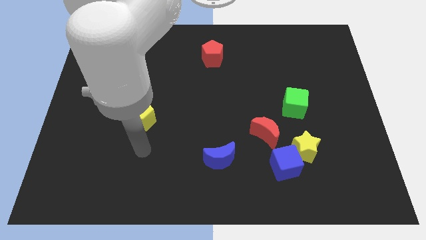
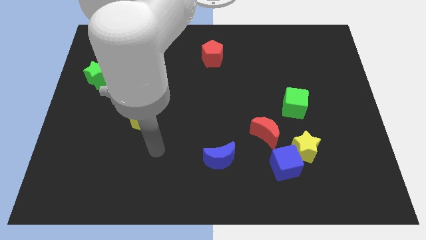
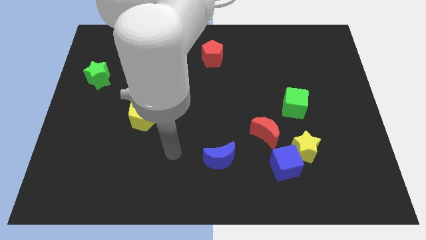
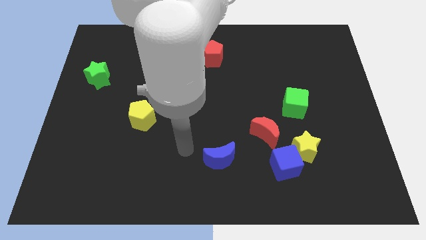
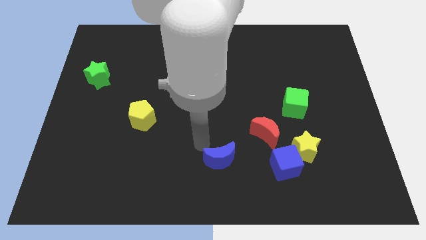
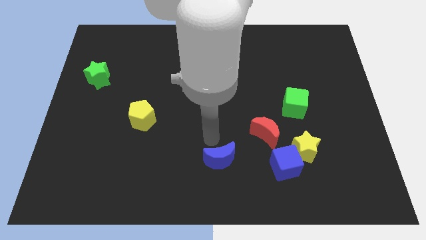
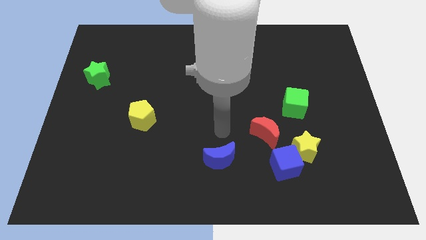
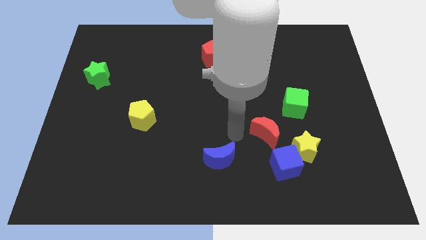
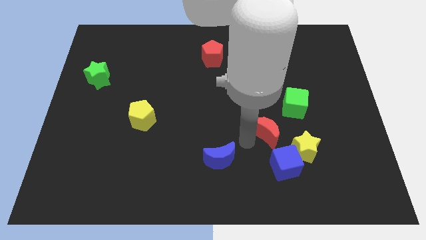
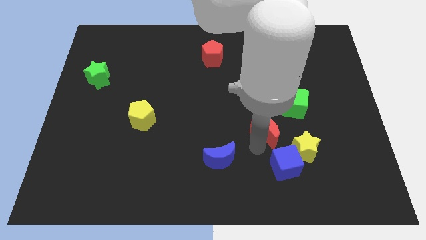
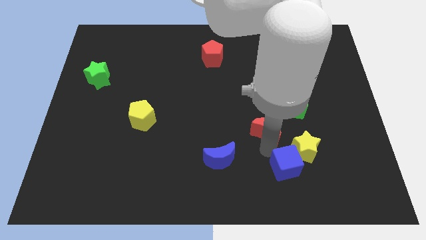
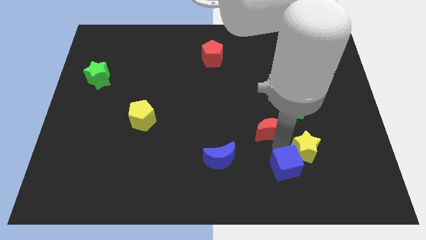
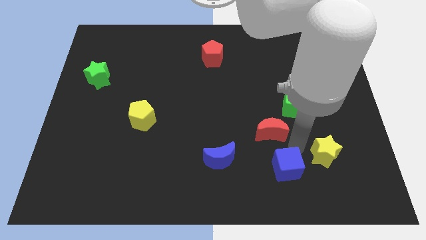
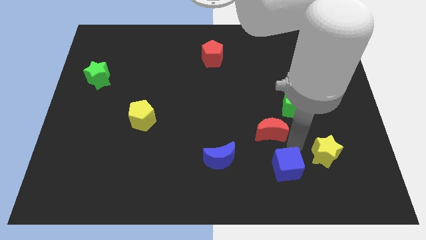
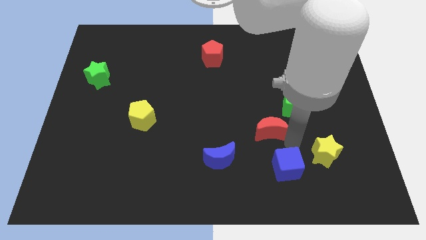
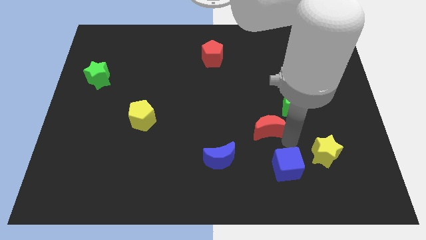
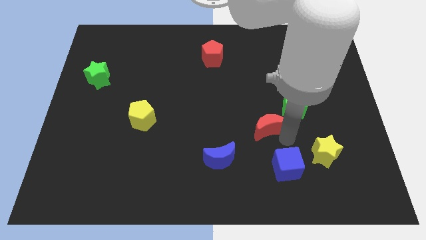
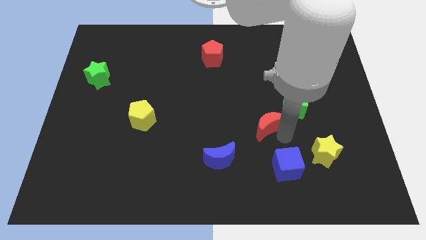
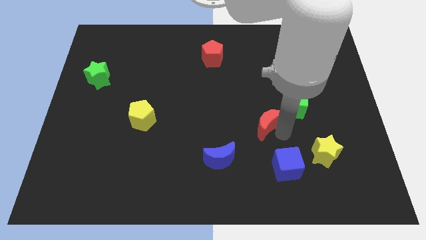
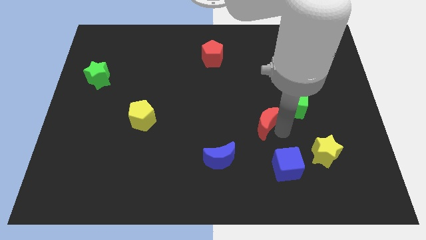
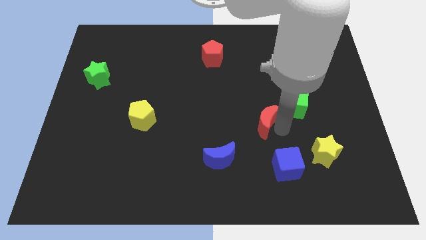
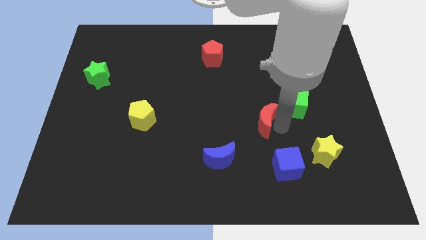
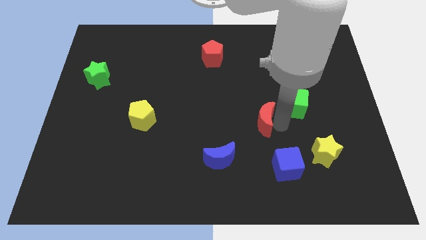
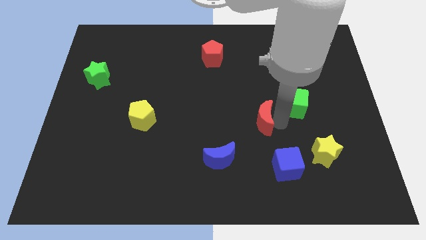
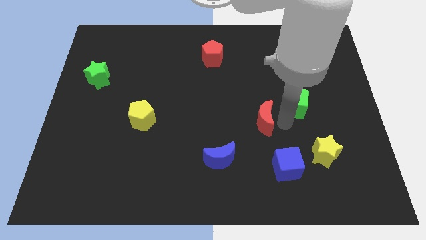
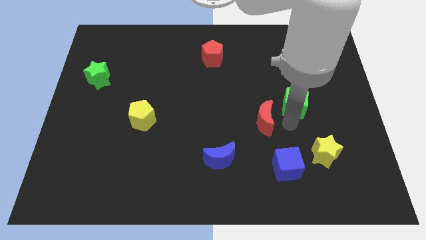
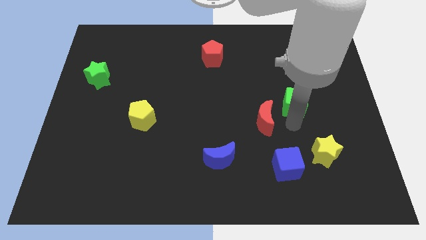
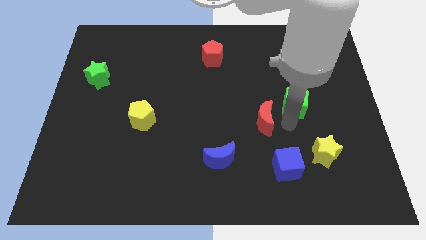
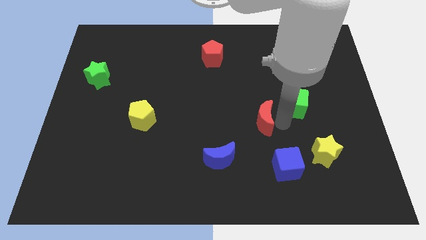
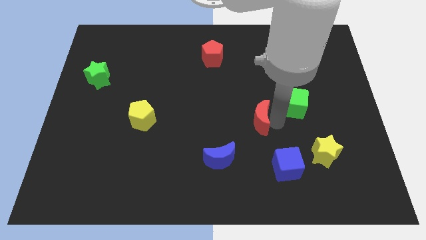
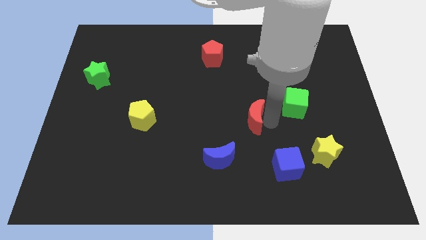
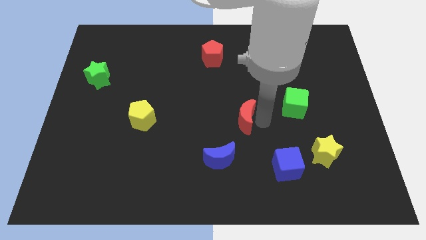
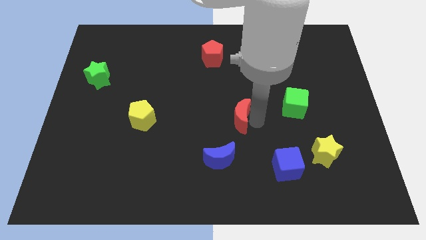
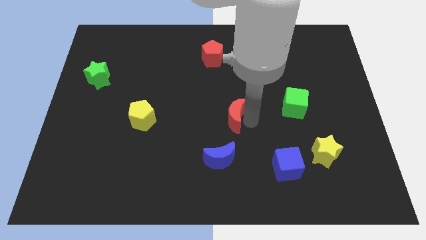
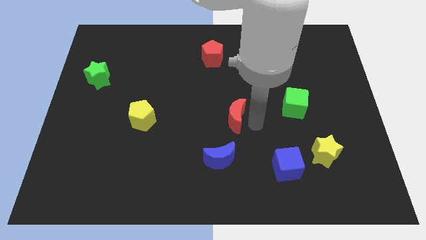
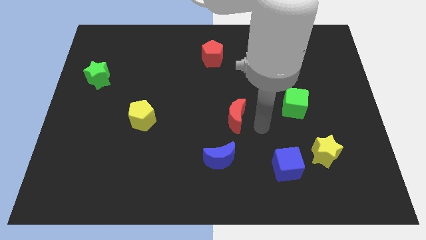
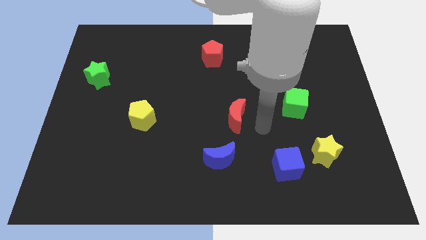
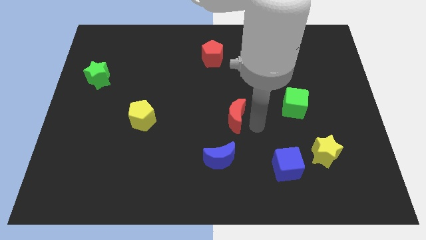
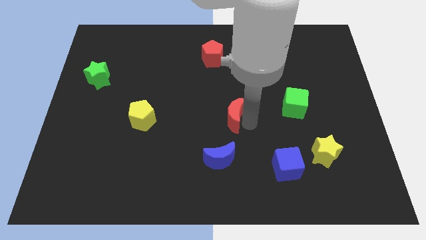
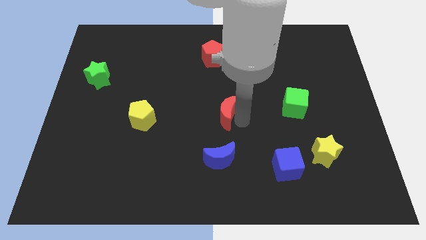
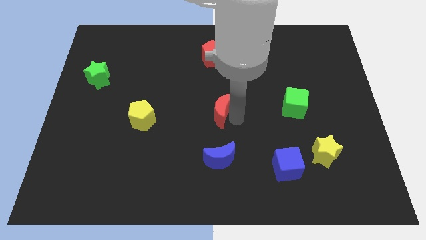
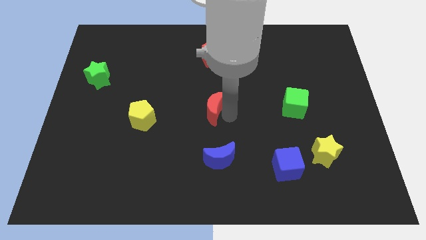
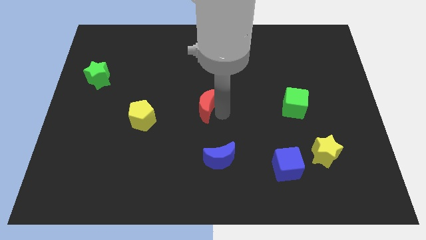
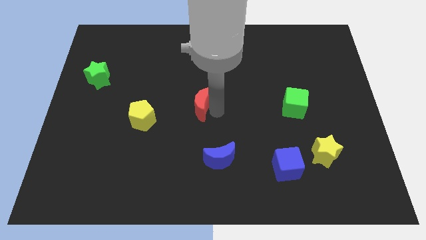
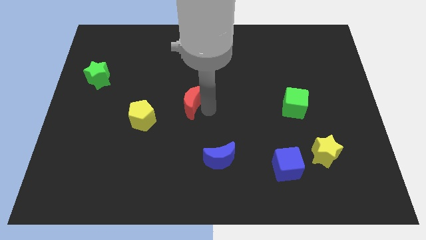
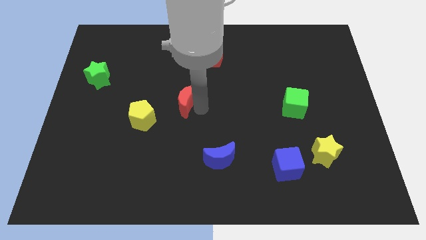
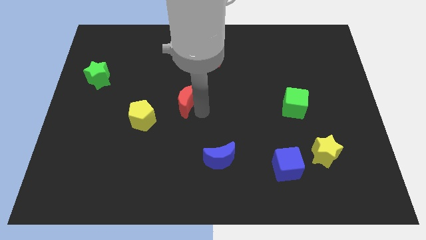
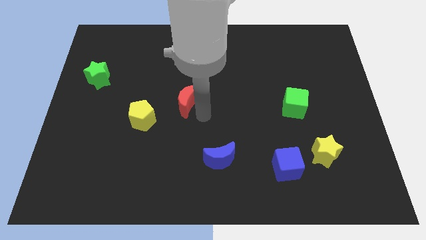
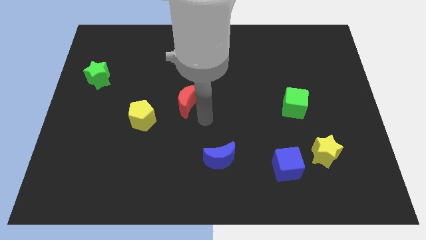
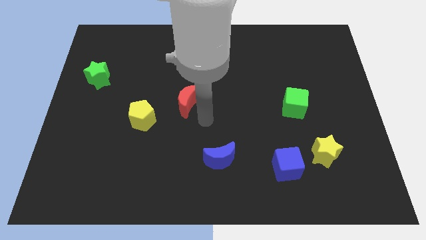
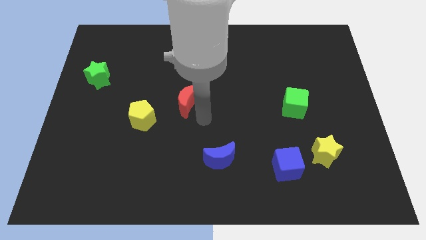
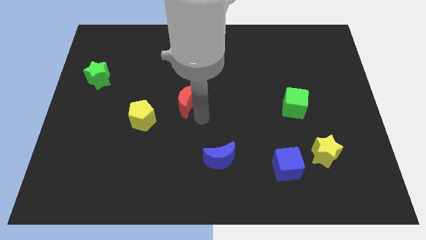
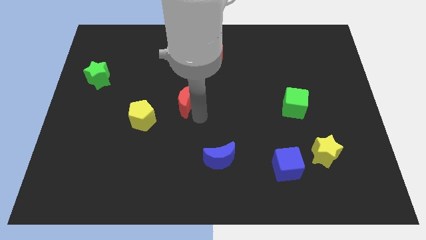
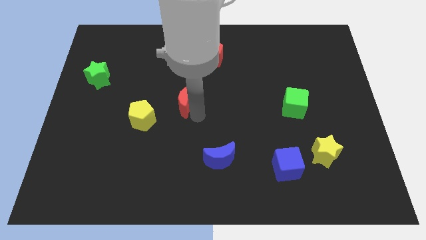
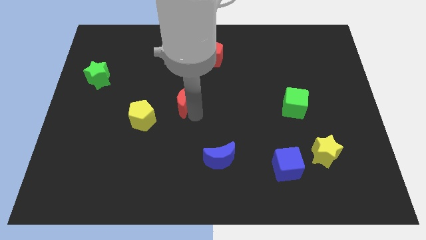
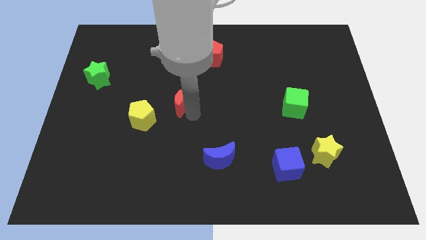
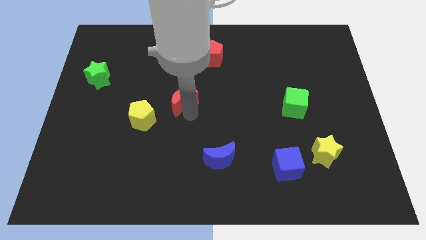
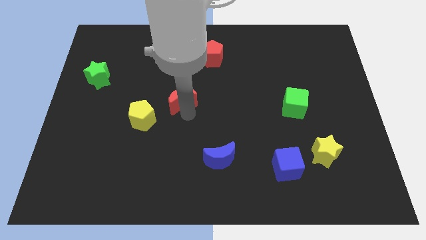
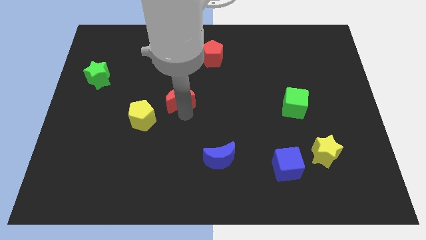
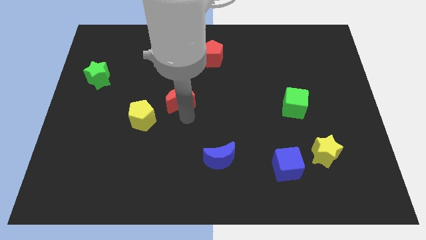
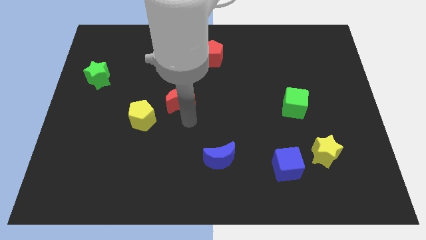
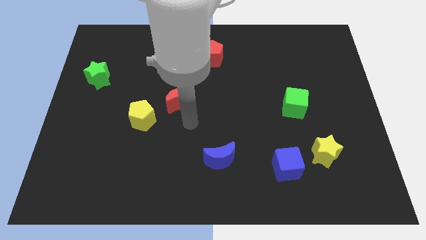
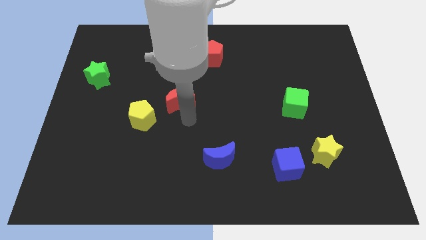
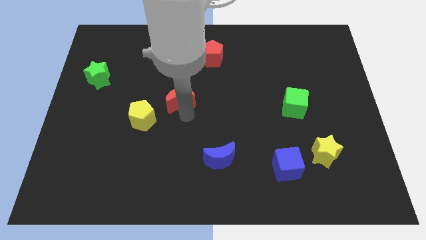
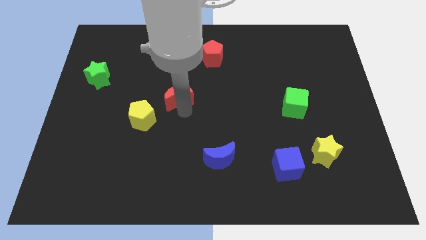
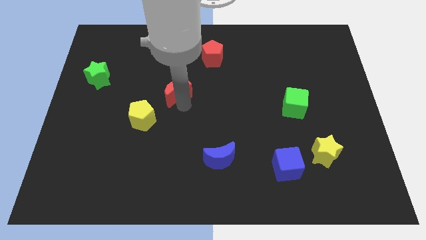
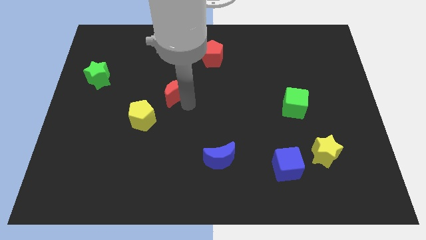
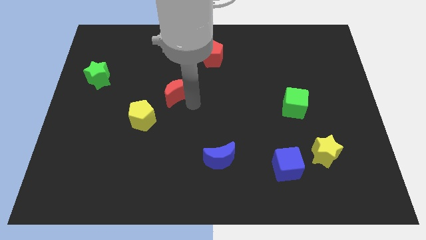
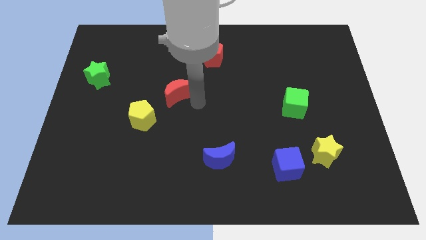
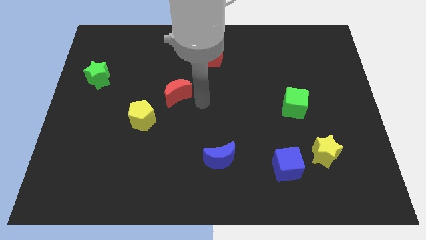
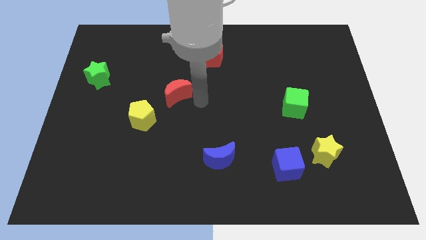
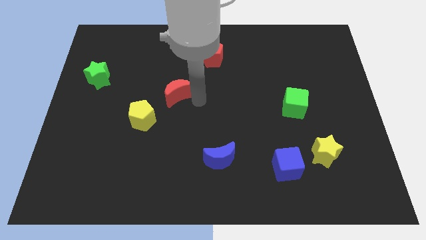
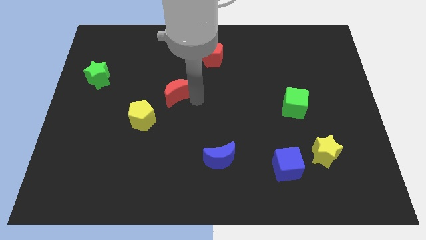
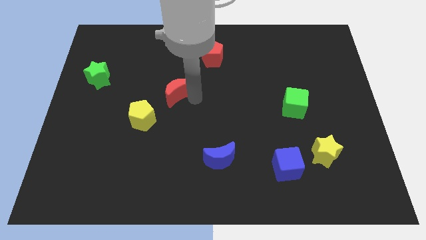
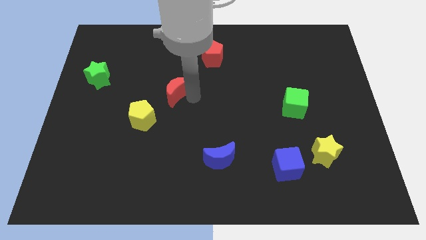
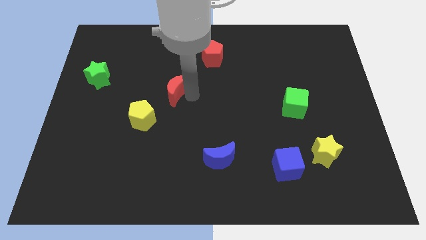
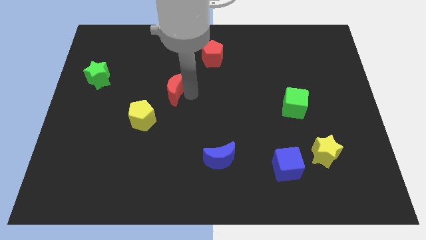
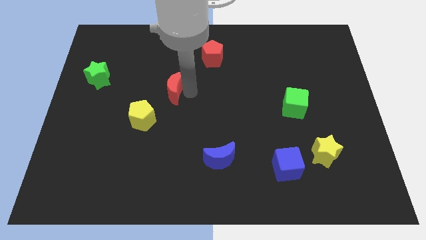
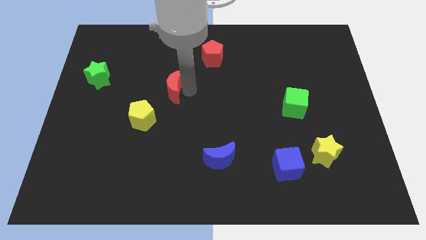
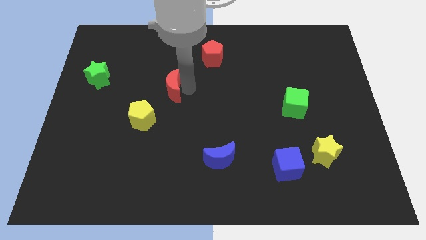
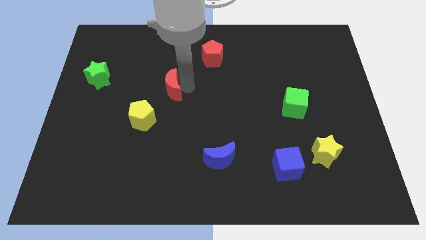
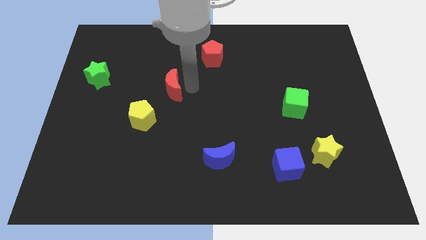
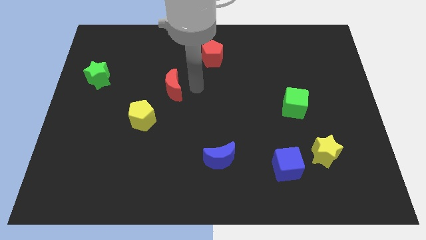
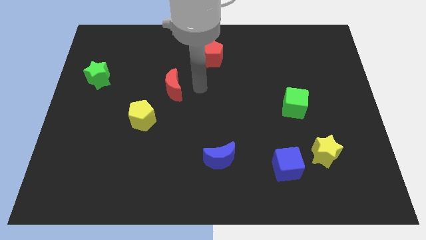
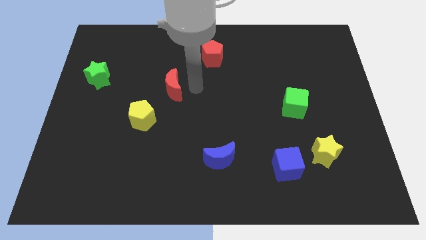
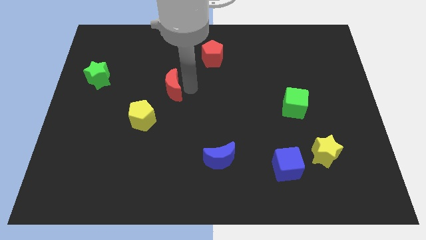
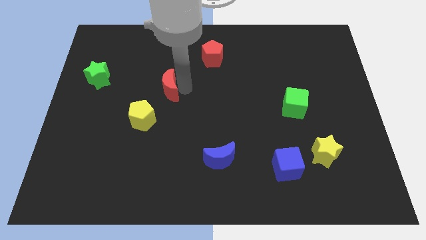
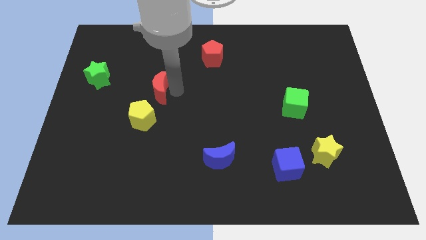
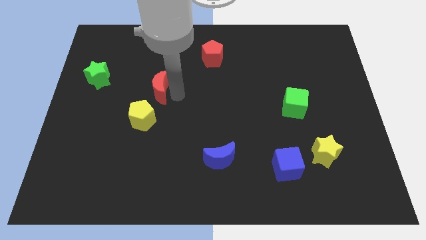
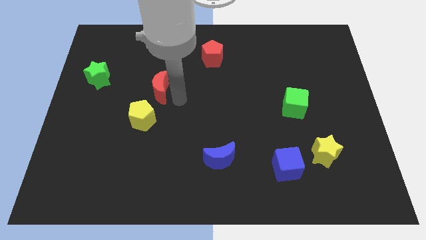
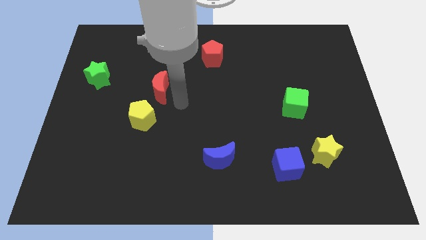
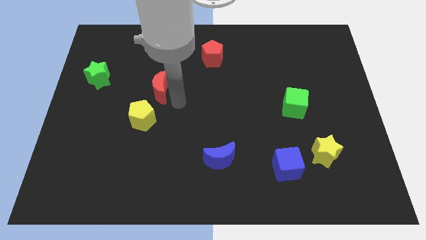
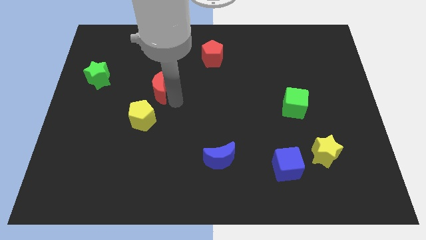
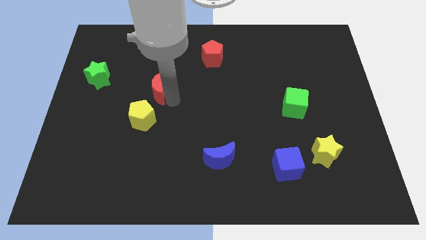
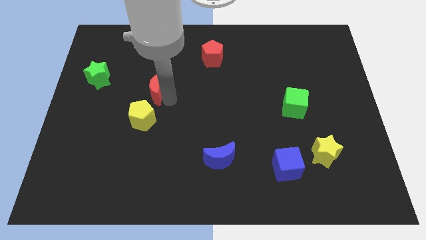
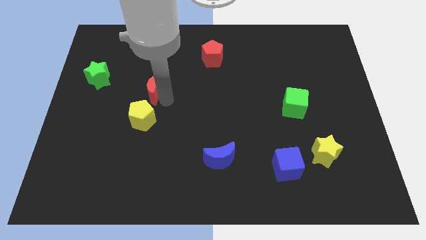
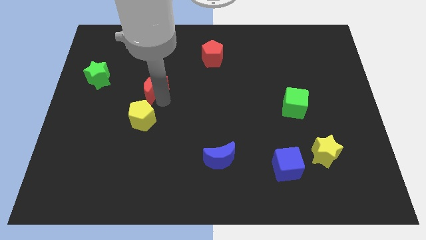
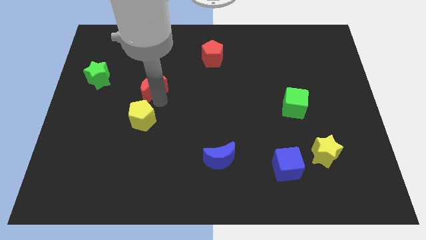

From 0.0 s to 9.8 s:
push the red moon to the right of the green star
